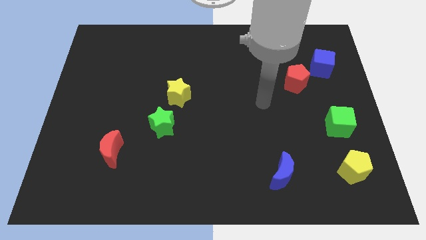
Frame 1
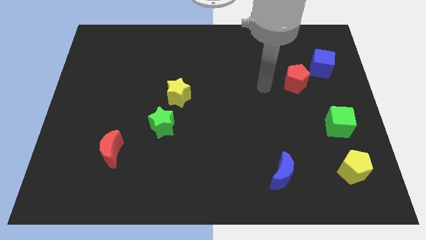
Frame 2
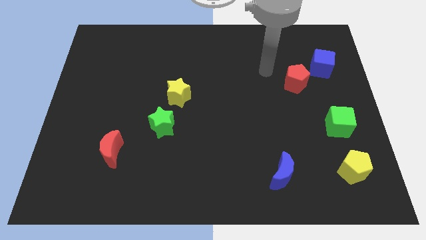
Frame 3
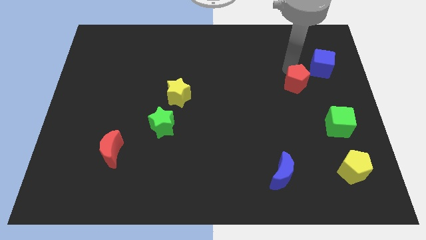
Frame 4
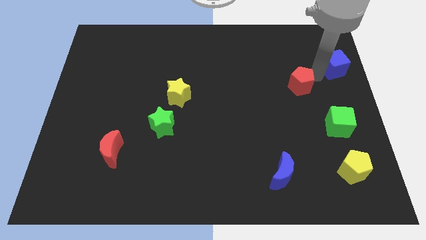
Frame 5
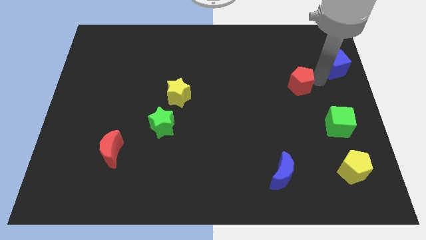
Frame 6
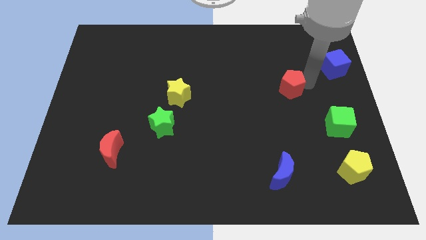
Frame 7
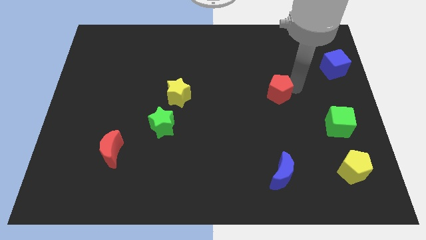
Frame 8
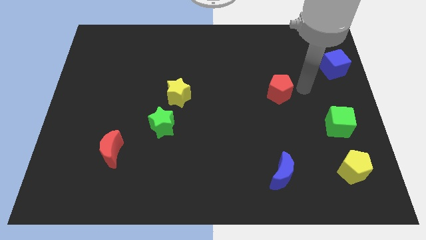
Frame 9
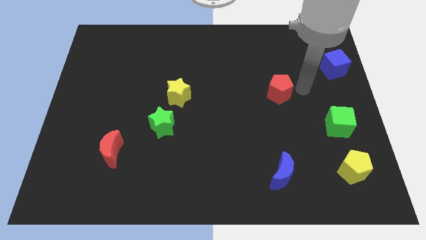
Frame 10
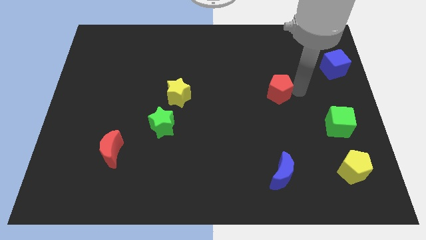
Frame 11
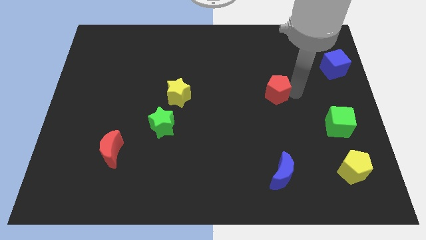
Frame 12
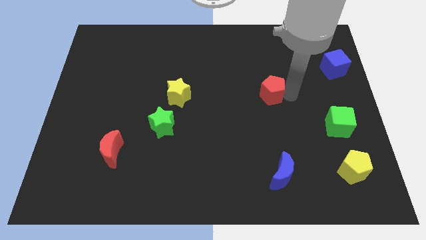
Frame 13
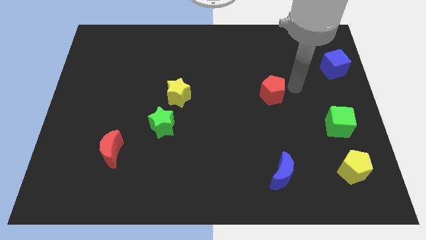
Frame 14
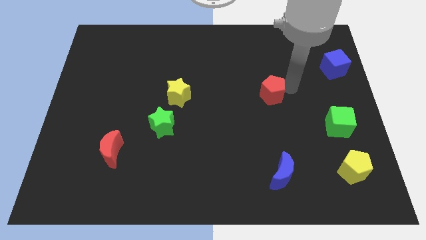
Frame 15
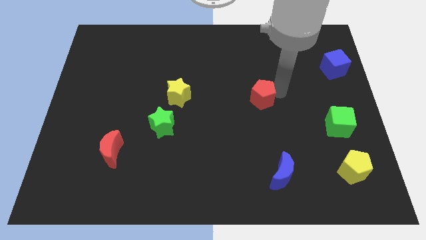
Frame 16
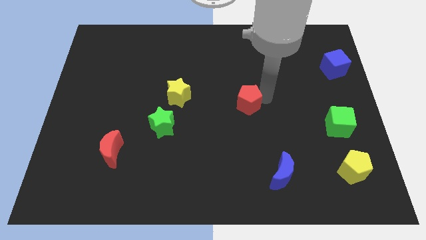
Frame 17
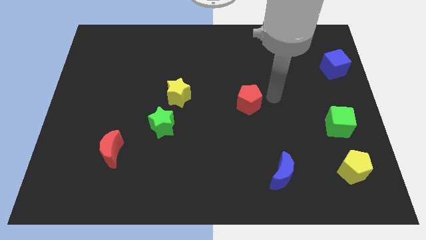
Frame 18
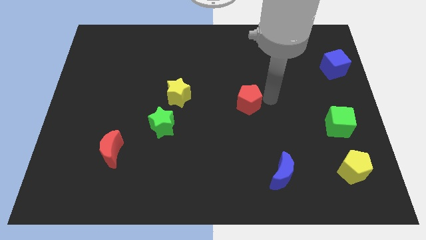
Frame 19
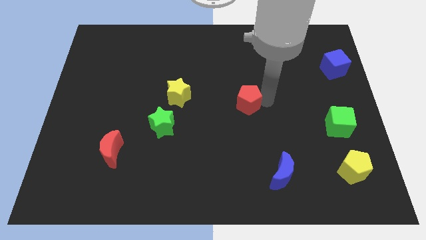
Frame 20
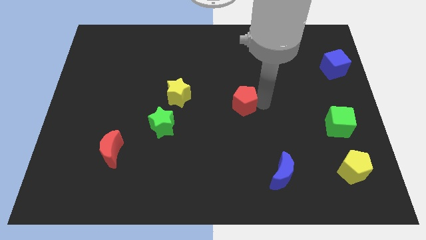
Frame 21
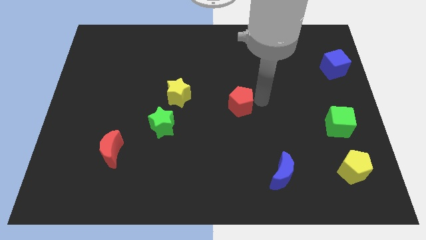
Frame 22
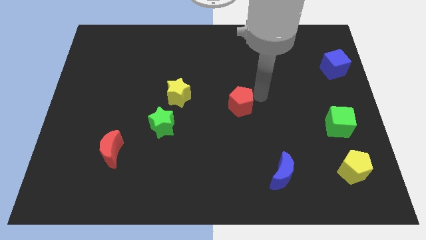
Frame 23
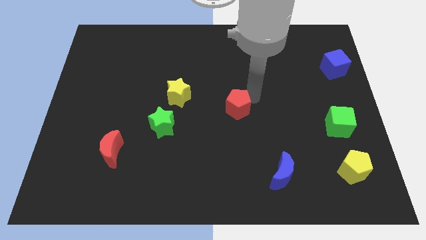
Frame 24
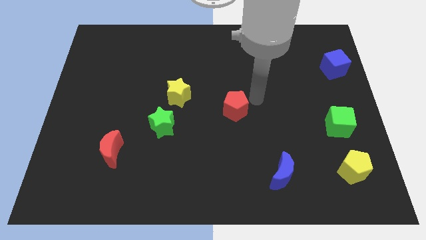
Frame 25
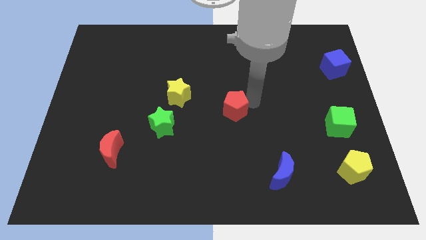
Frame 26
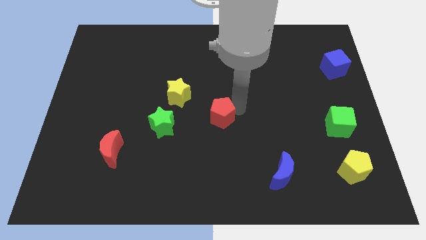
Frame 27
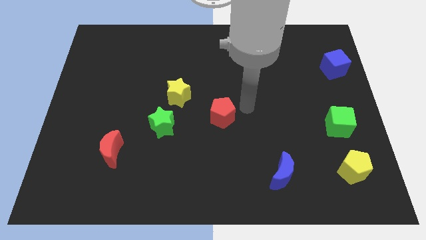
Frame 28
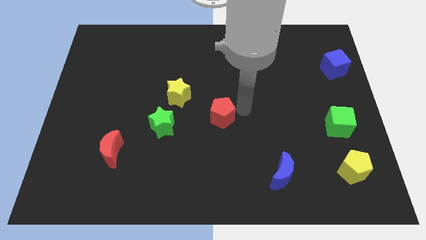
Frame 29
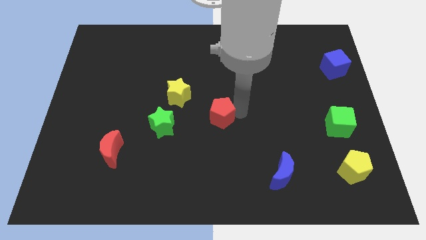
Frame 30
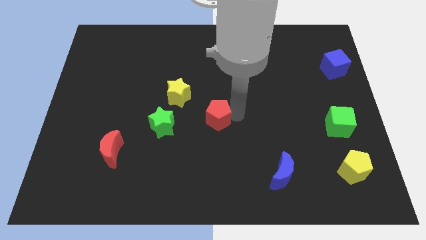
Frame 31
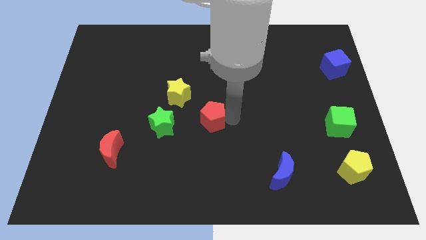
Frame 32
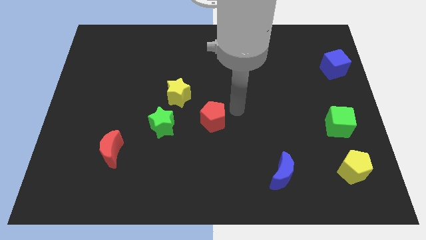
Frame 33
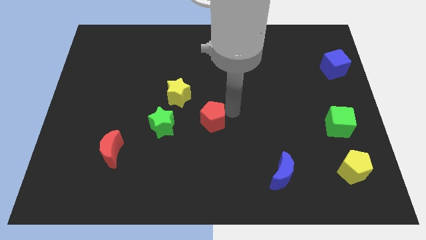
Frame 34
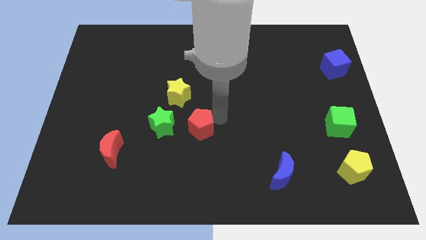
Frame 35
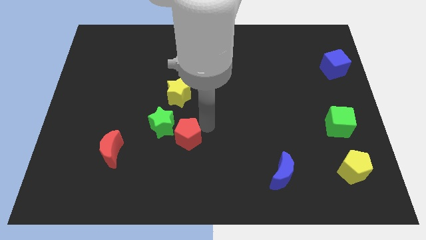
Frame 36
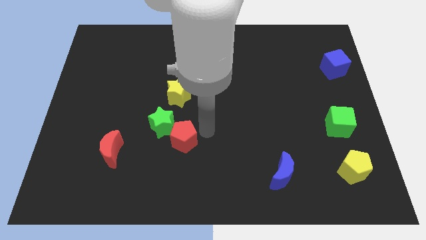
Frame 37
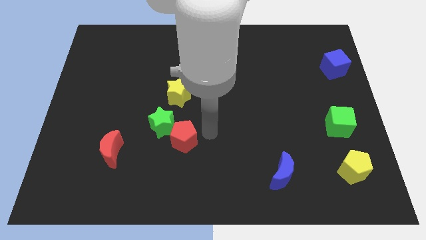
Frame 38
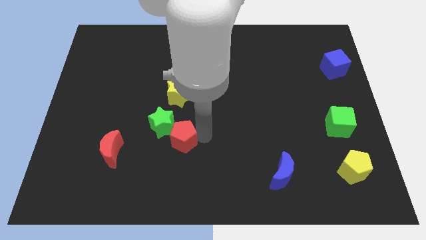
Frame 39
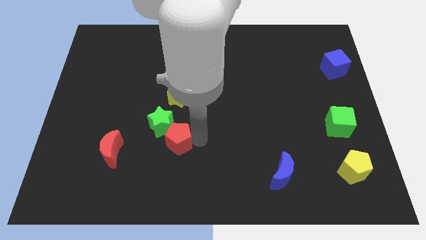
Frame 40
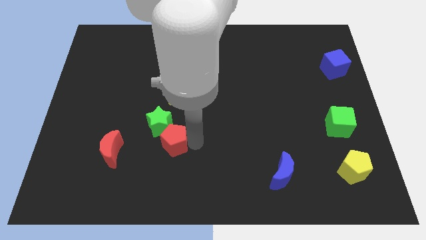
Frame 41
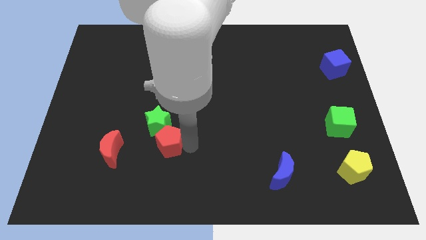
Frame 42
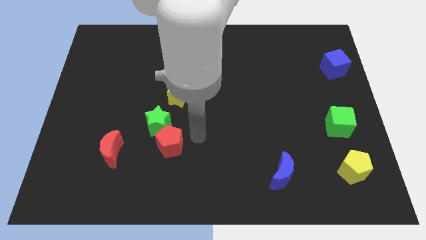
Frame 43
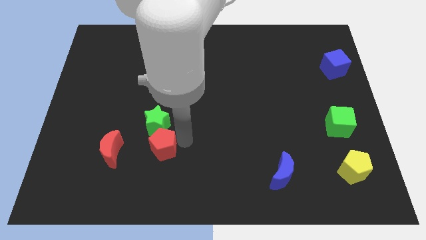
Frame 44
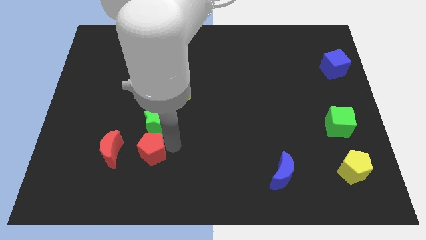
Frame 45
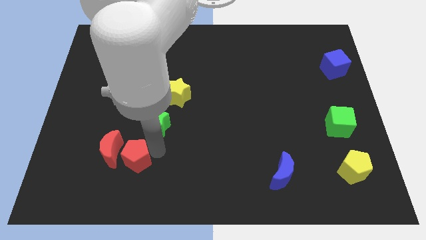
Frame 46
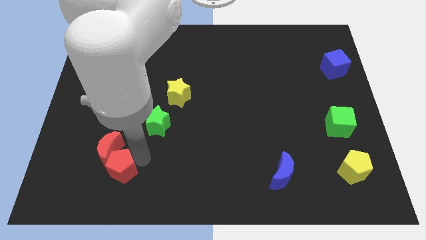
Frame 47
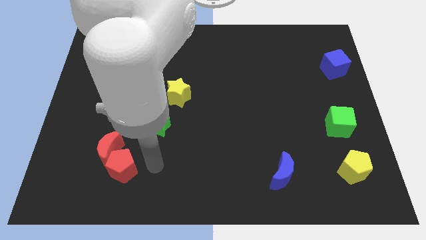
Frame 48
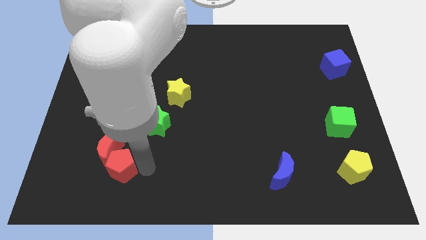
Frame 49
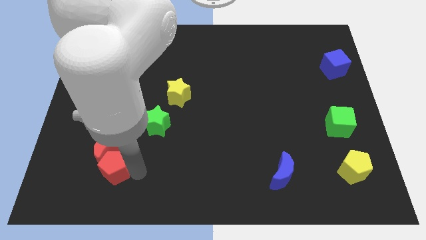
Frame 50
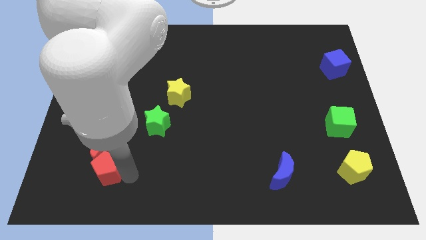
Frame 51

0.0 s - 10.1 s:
push the red pentagon to the bottom left of the red moon

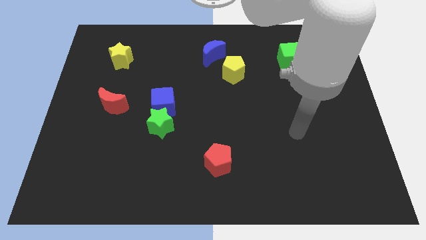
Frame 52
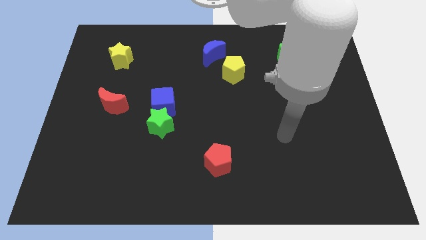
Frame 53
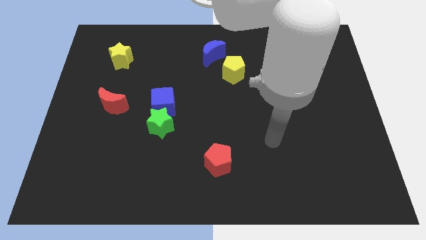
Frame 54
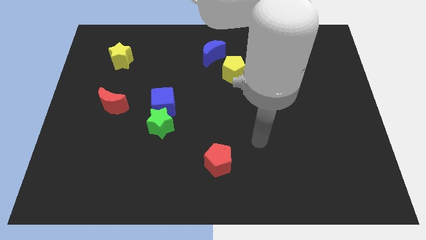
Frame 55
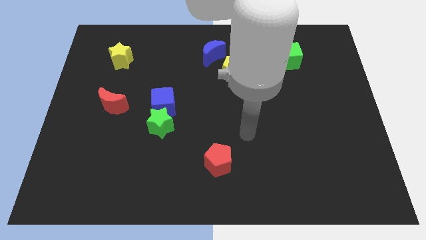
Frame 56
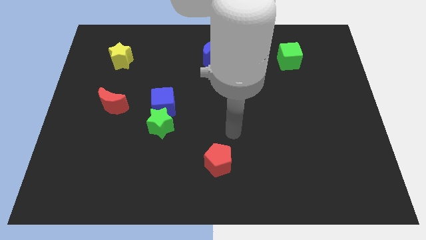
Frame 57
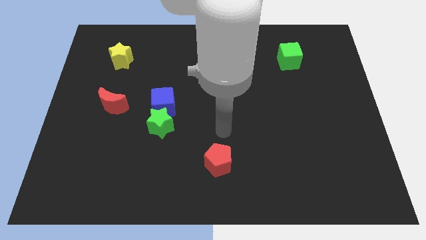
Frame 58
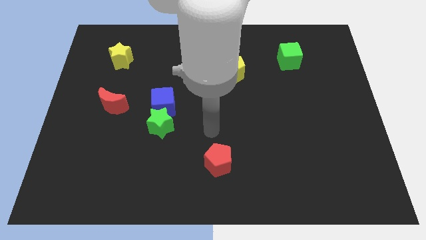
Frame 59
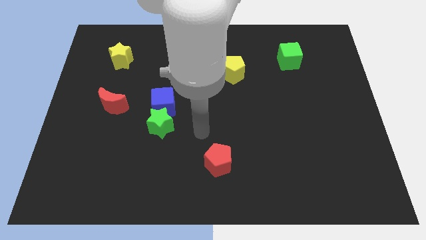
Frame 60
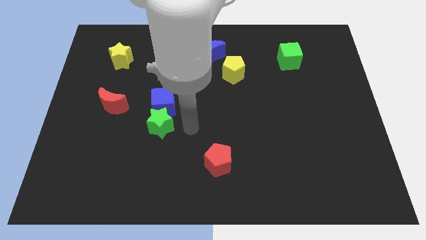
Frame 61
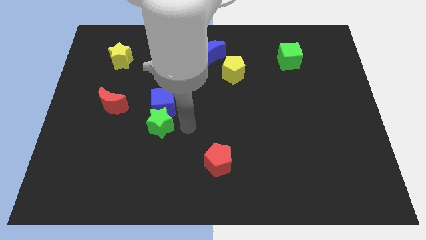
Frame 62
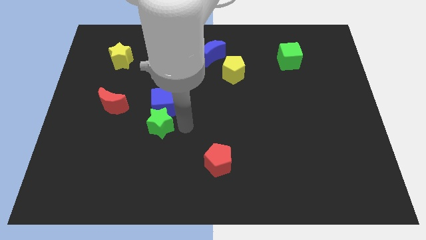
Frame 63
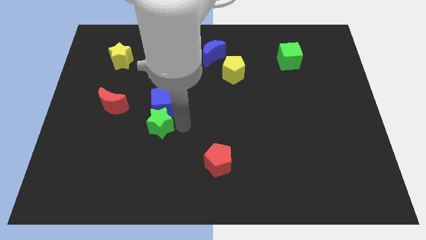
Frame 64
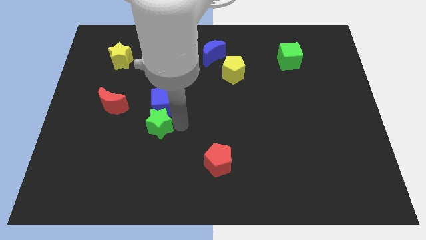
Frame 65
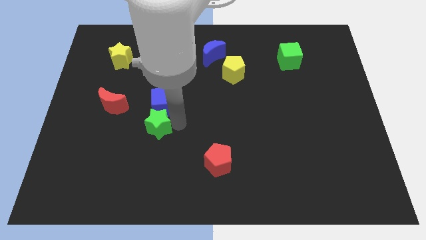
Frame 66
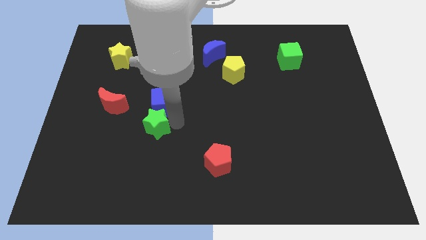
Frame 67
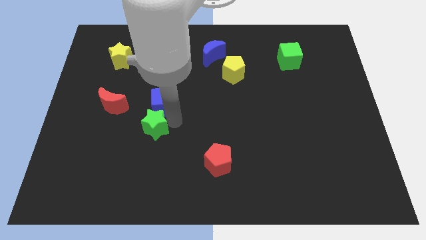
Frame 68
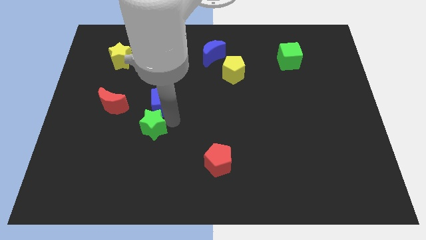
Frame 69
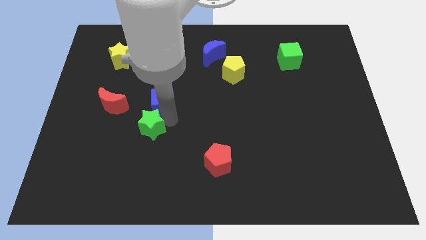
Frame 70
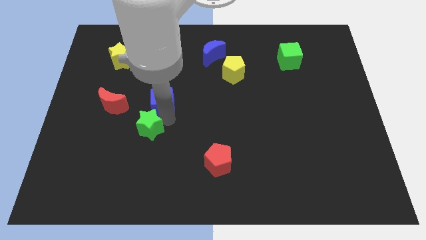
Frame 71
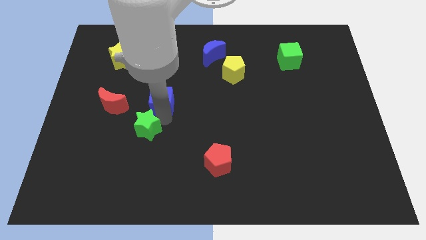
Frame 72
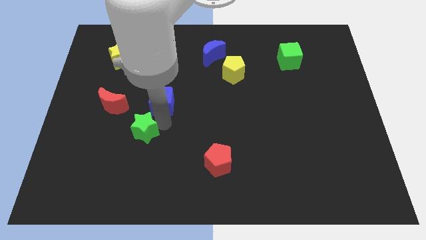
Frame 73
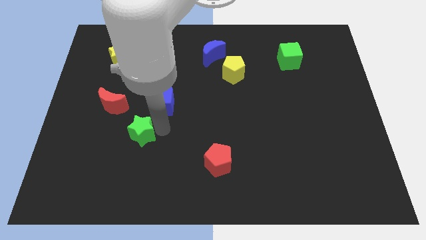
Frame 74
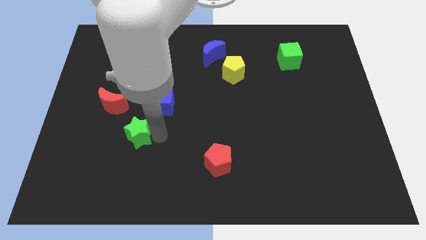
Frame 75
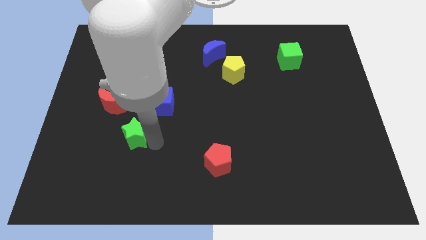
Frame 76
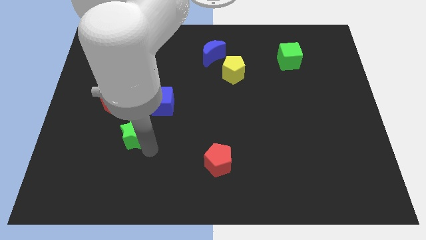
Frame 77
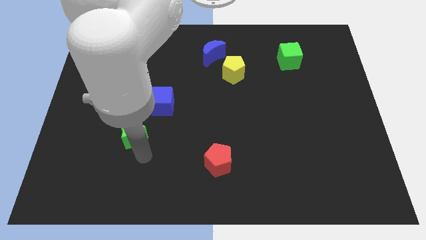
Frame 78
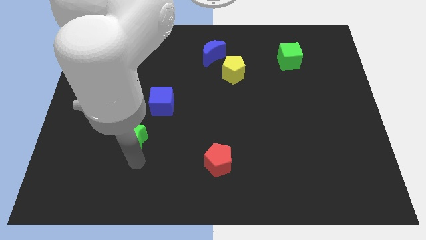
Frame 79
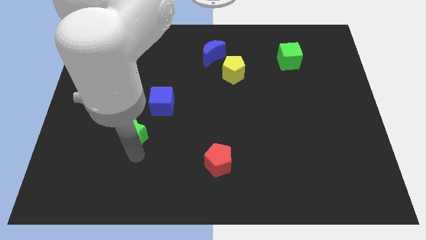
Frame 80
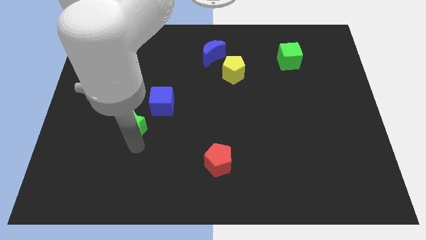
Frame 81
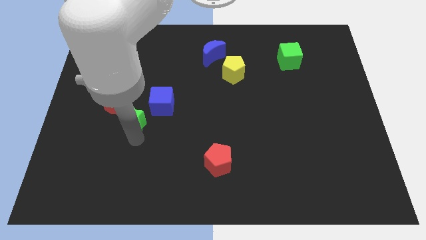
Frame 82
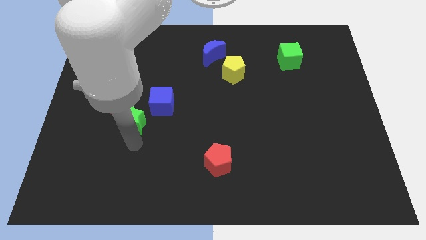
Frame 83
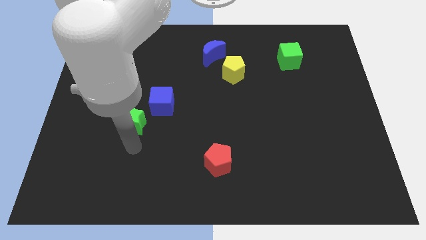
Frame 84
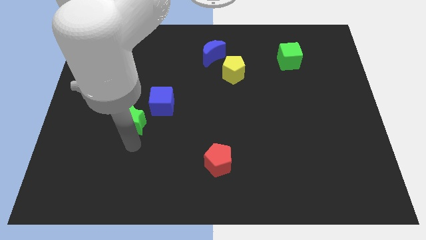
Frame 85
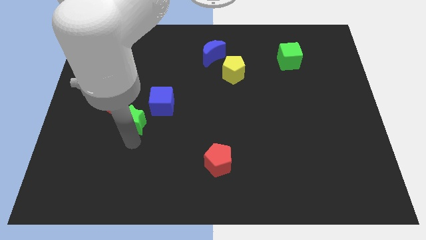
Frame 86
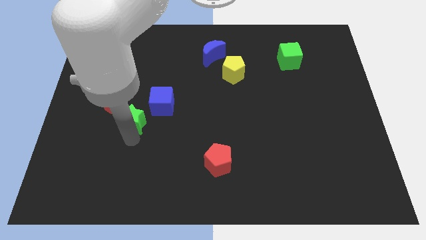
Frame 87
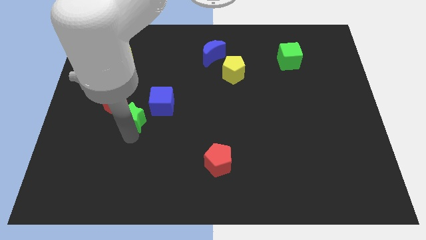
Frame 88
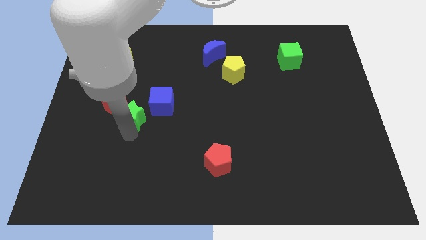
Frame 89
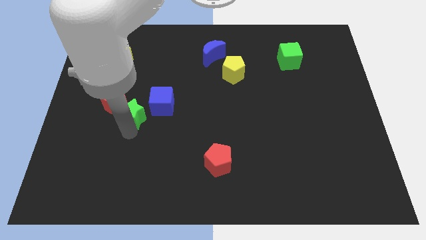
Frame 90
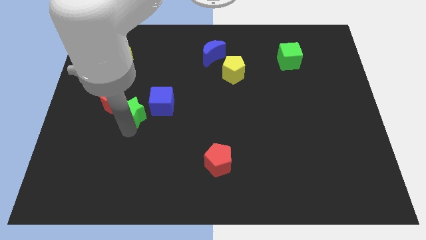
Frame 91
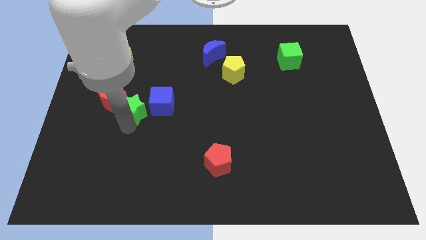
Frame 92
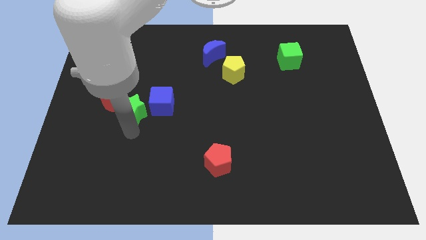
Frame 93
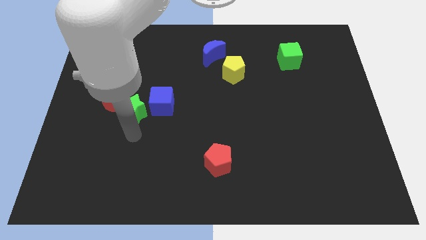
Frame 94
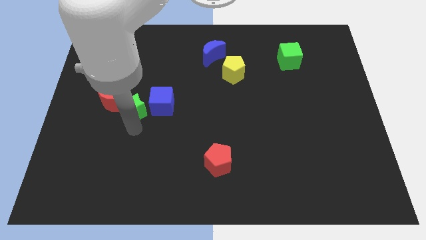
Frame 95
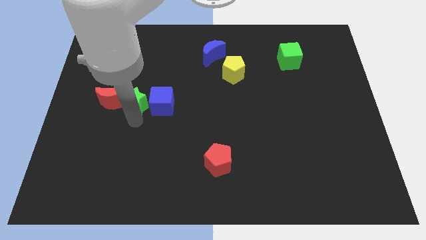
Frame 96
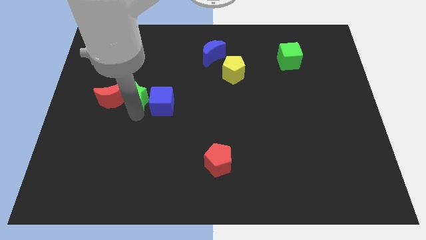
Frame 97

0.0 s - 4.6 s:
move the green star to the top right of the red moon
